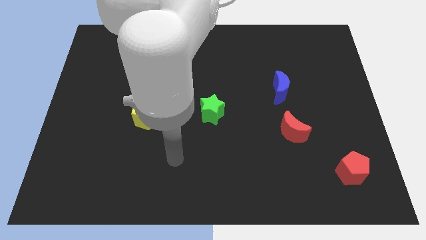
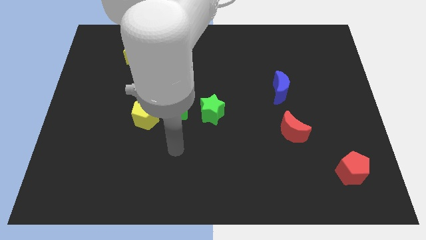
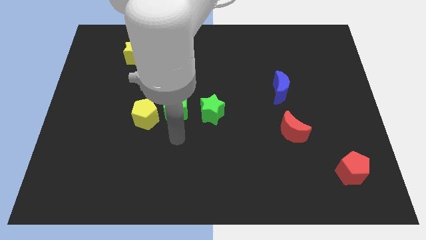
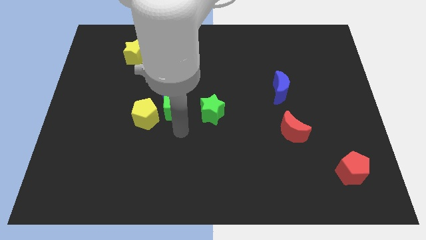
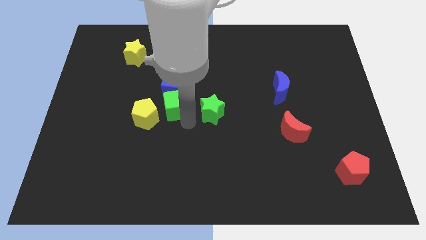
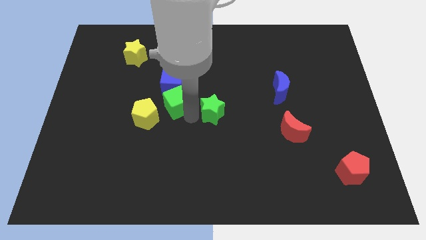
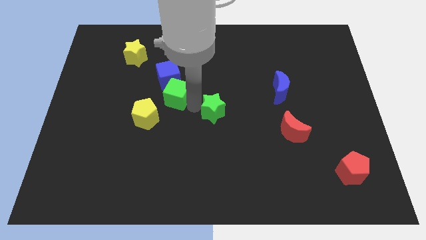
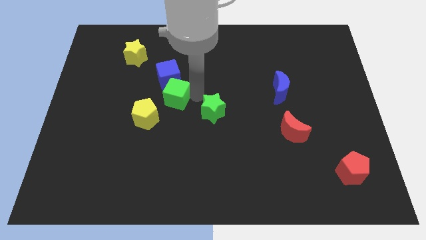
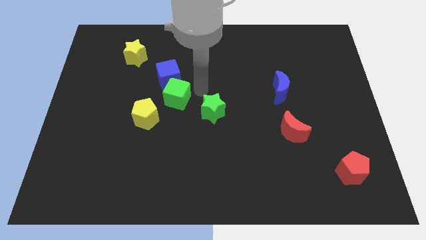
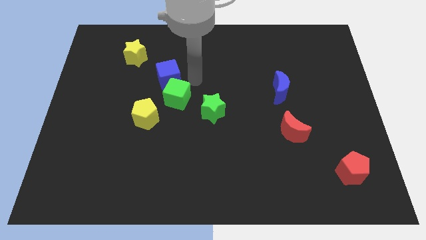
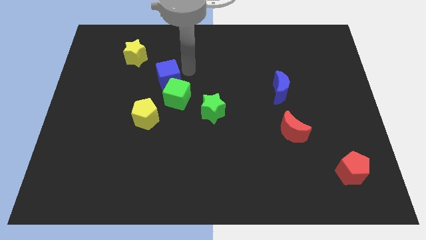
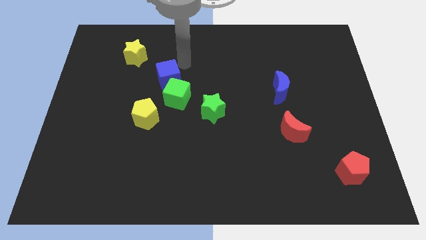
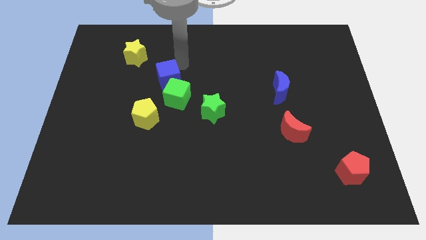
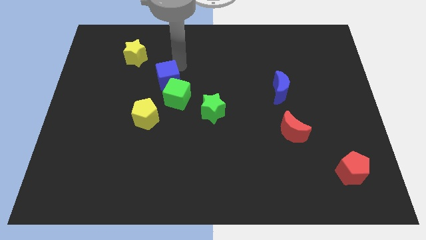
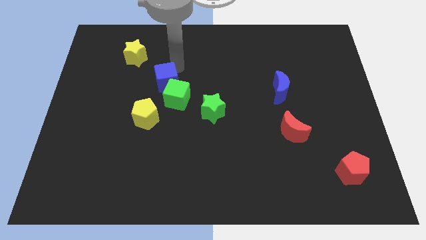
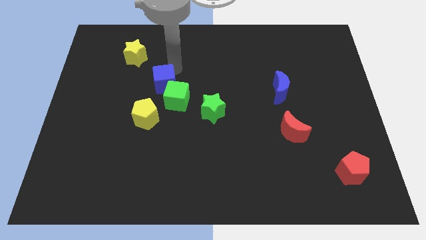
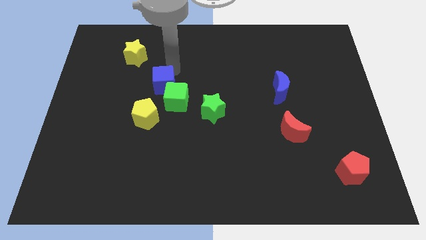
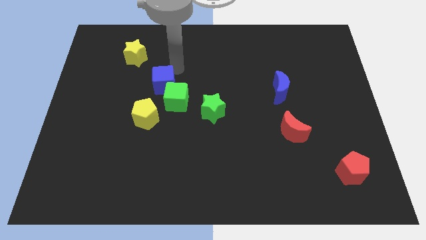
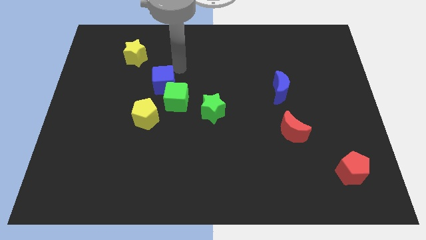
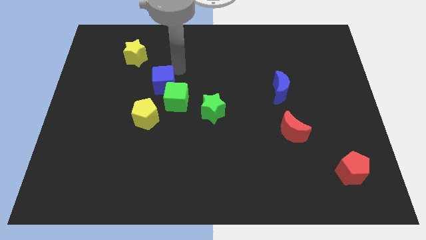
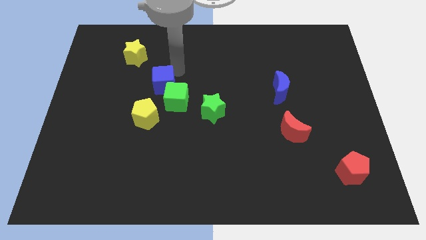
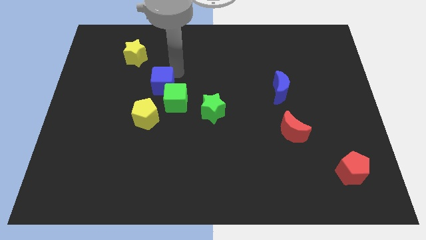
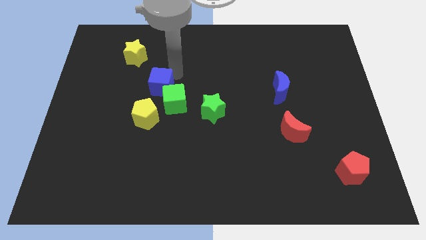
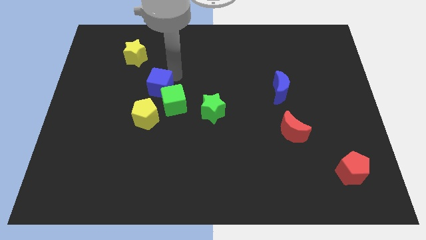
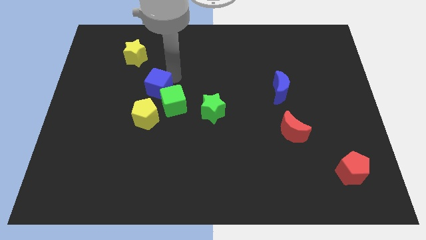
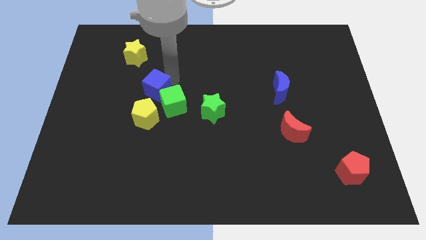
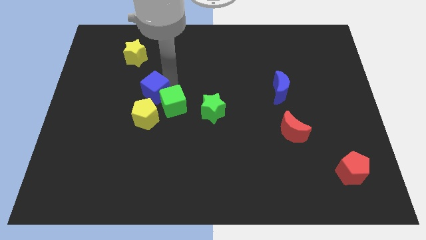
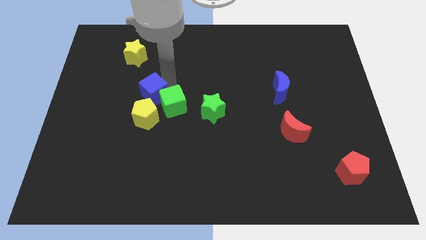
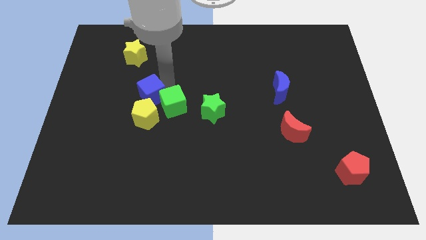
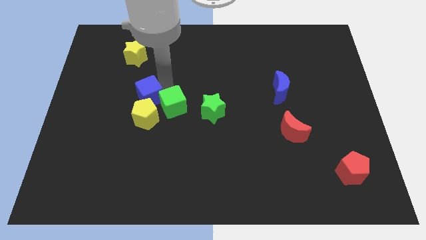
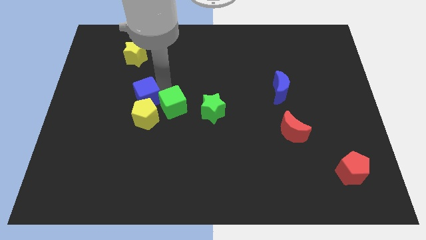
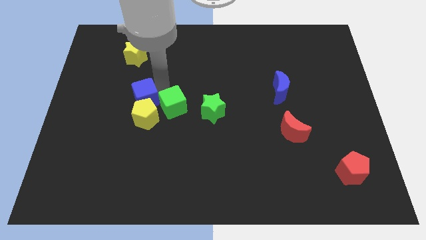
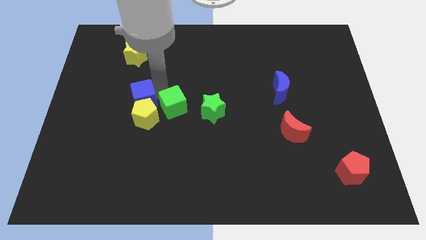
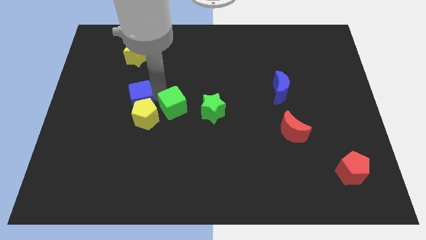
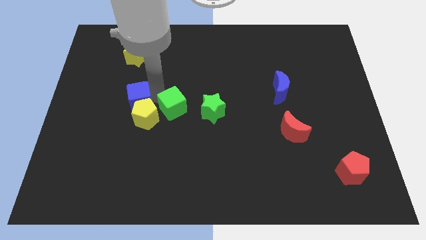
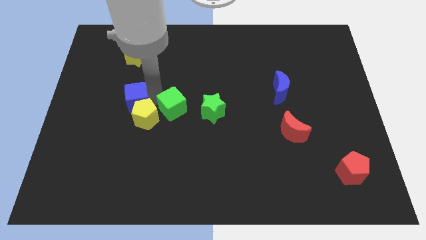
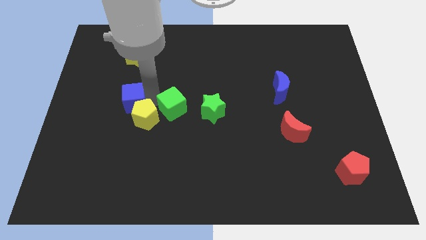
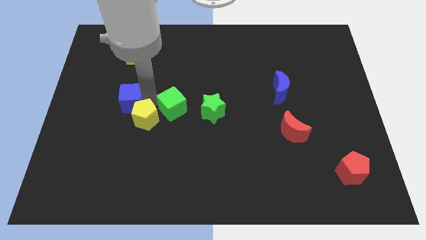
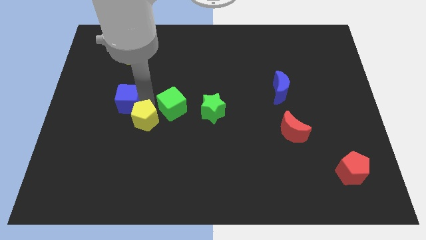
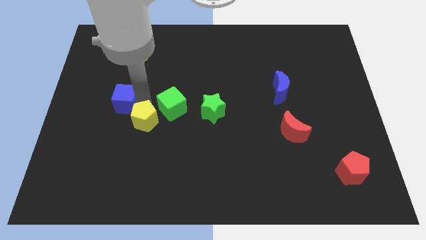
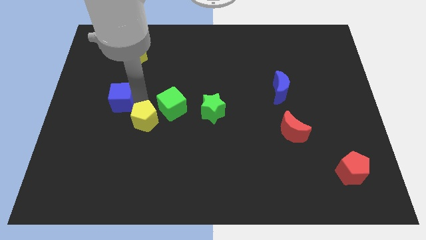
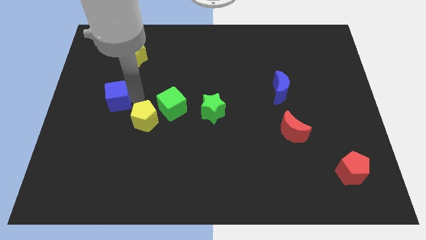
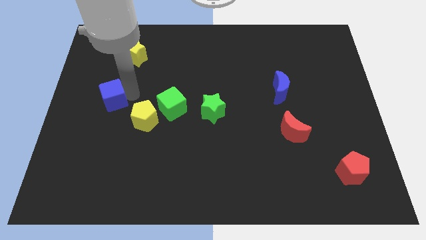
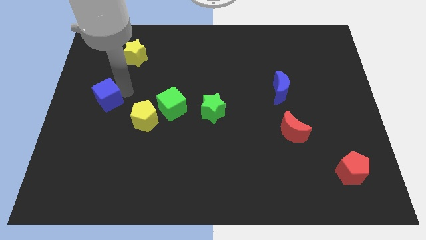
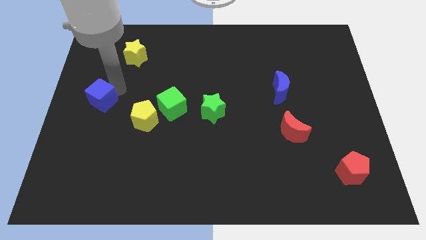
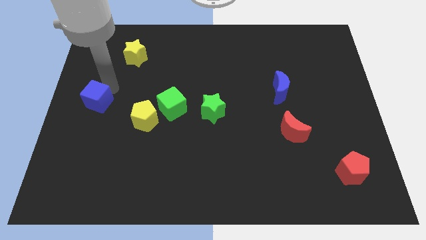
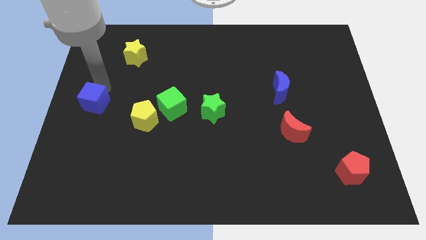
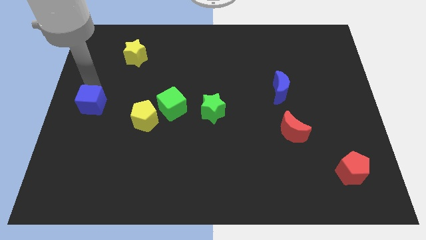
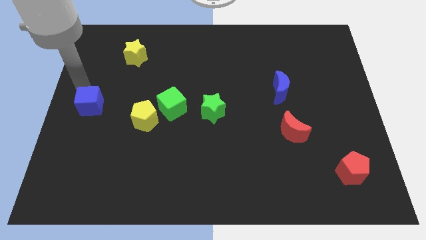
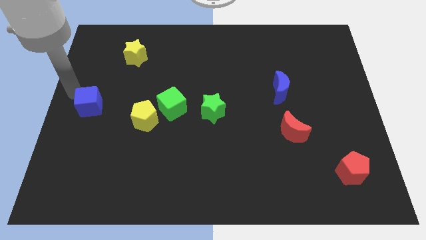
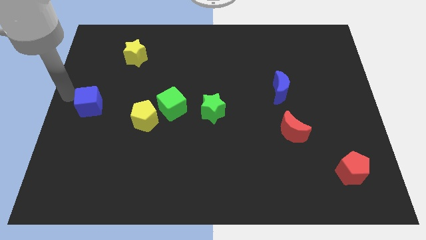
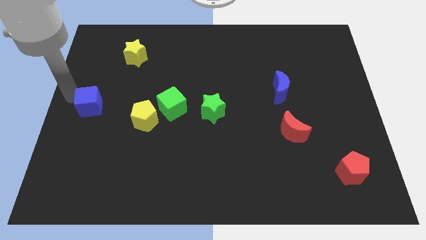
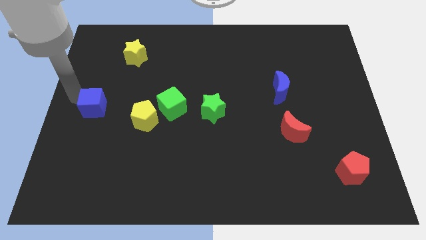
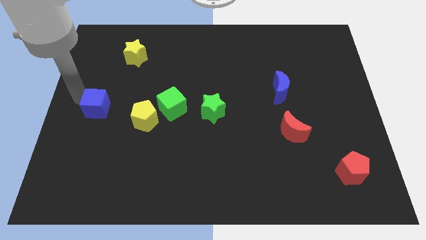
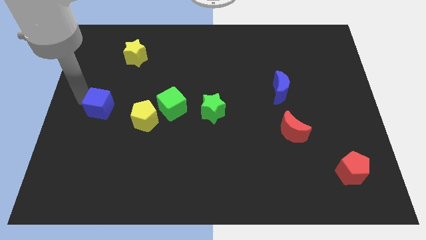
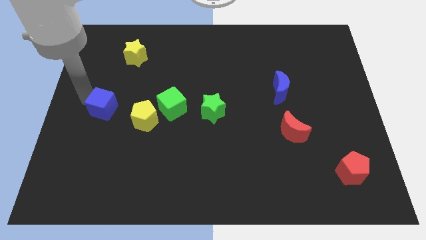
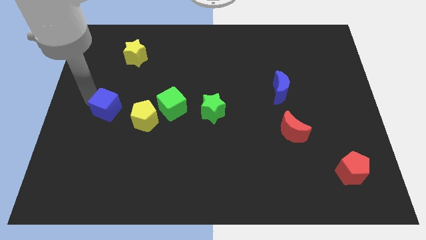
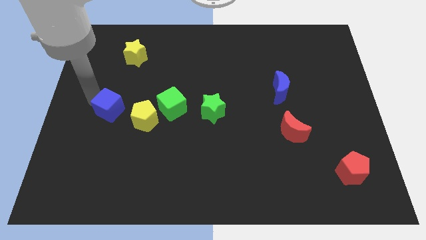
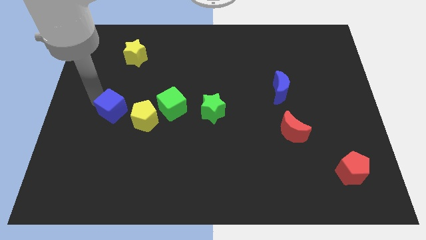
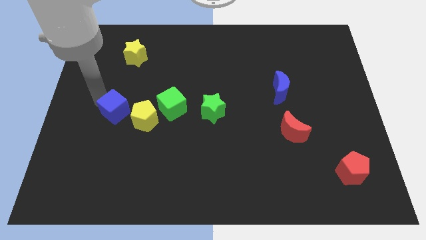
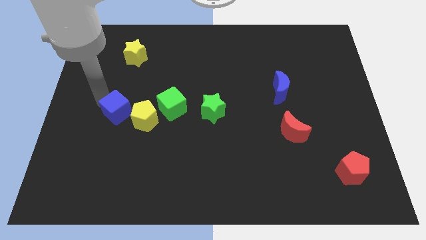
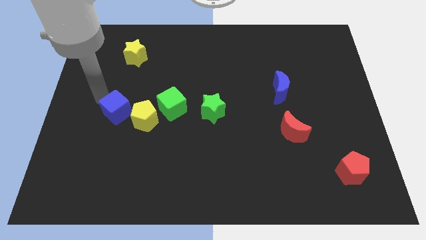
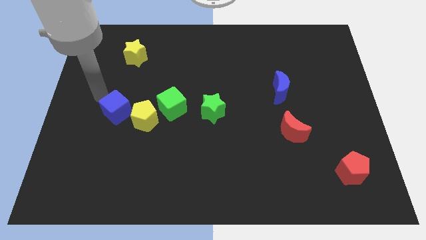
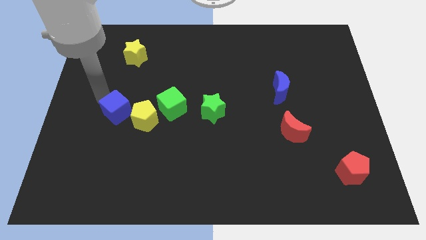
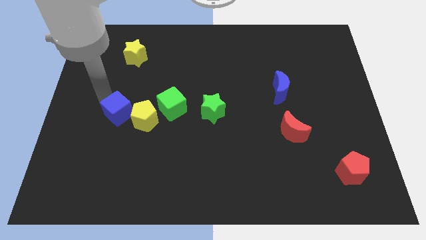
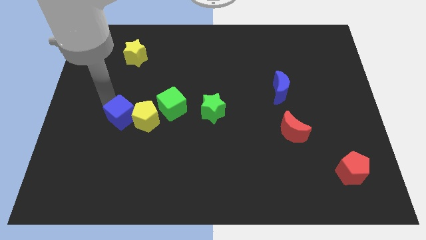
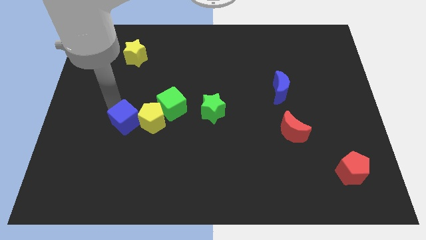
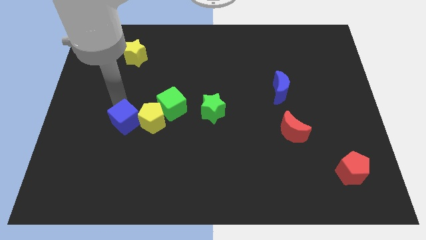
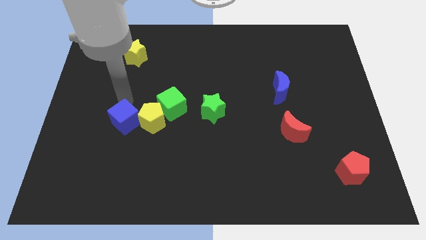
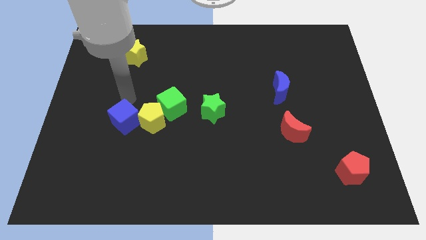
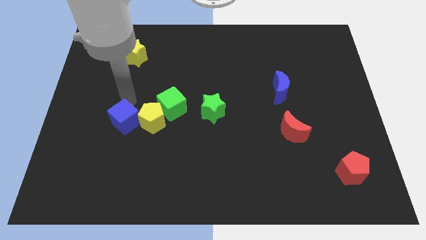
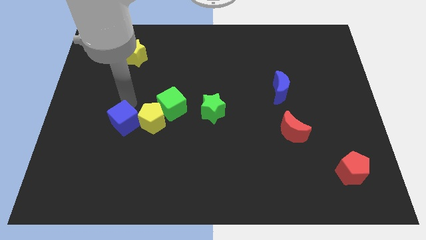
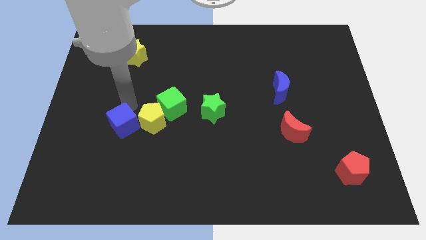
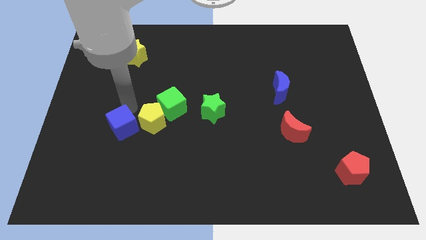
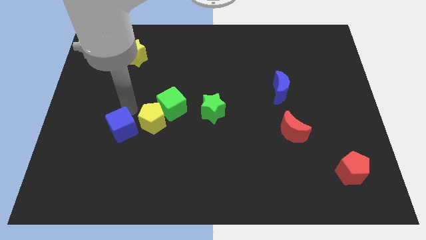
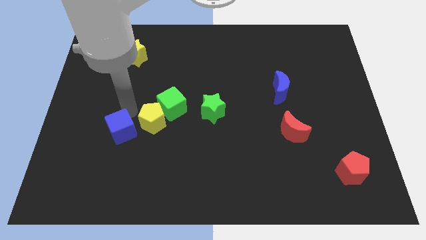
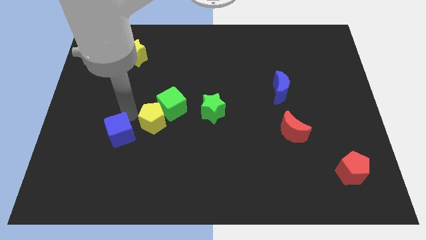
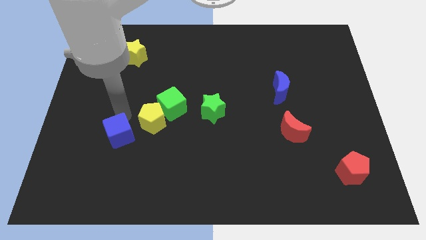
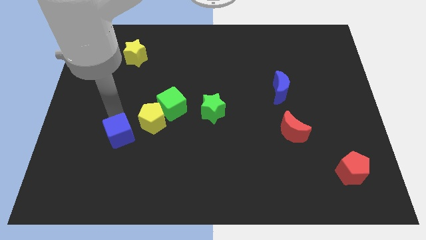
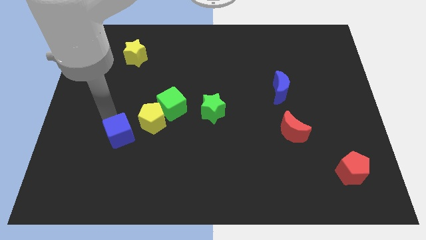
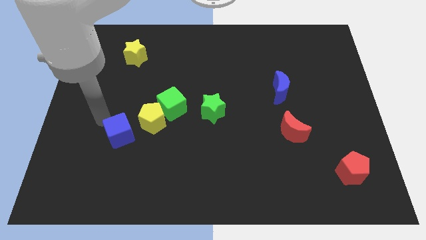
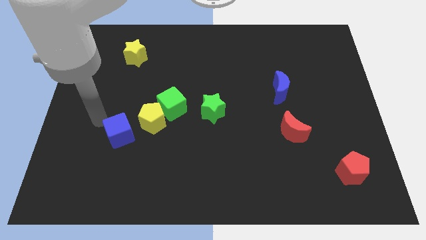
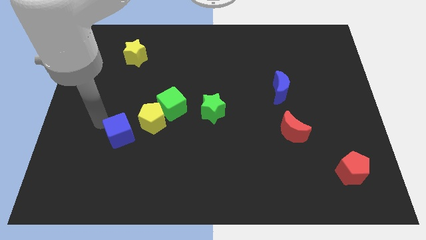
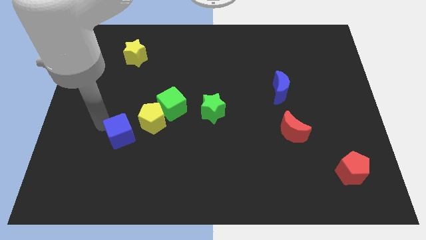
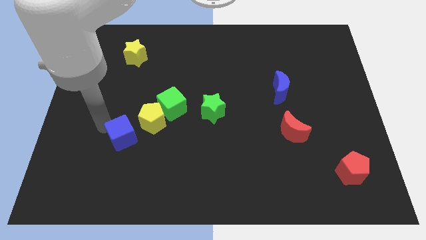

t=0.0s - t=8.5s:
move the blue cube slightly downwards
